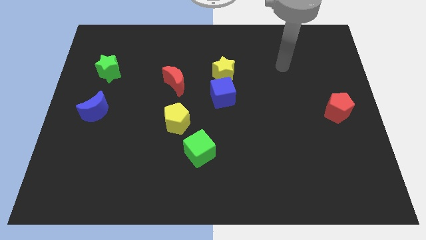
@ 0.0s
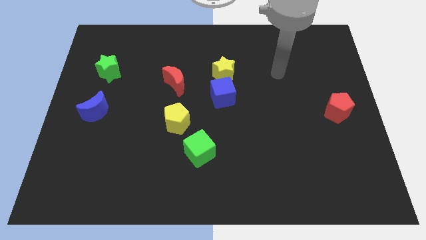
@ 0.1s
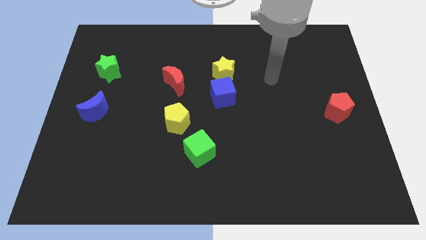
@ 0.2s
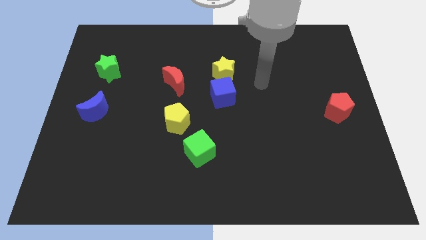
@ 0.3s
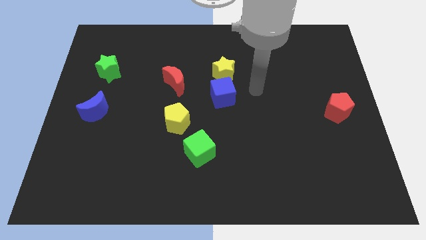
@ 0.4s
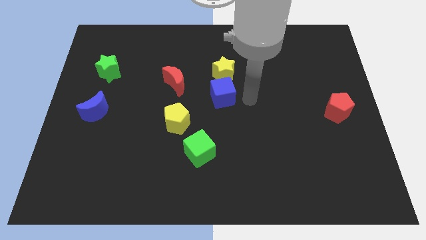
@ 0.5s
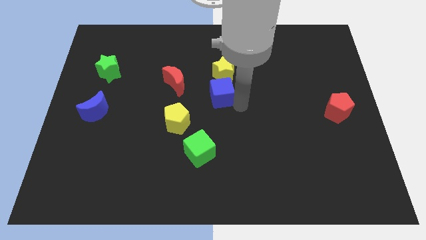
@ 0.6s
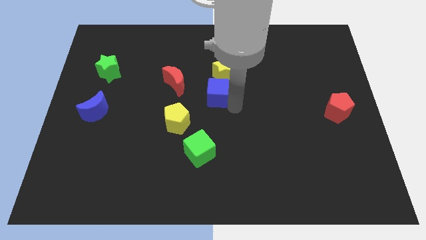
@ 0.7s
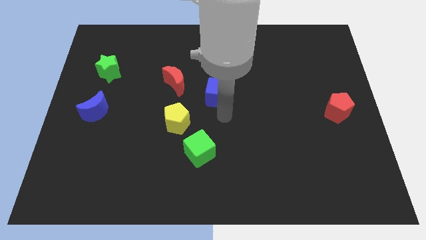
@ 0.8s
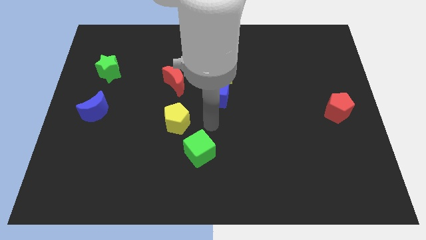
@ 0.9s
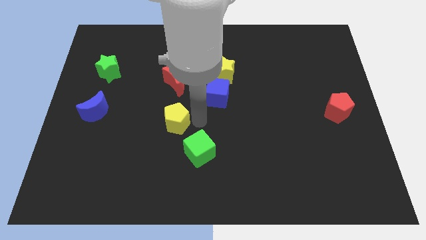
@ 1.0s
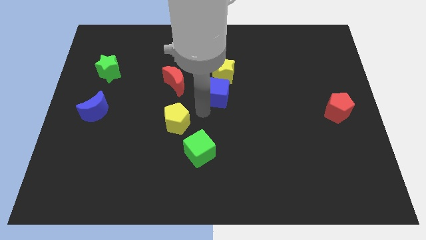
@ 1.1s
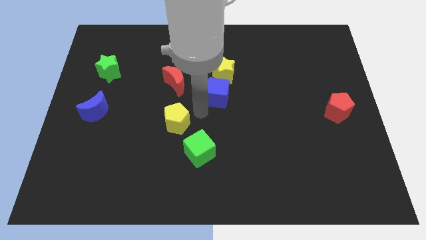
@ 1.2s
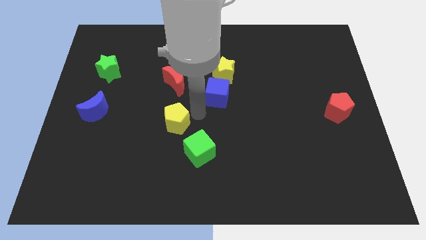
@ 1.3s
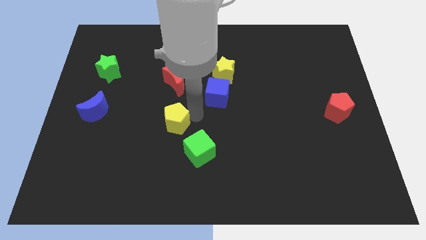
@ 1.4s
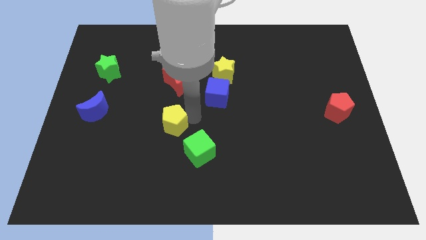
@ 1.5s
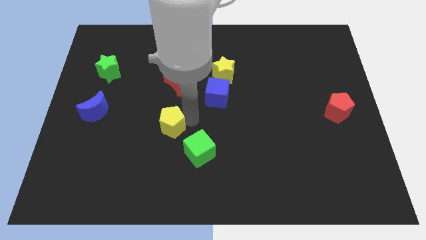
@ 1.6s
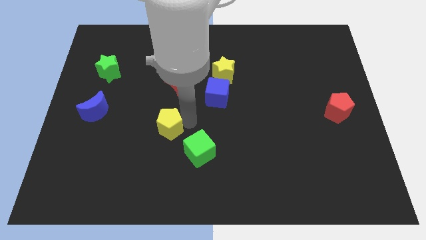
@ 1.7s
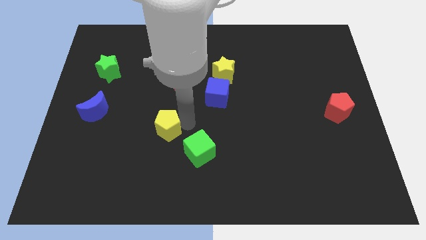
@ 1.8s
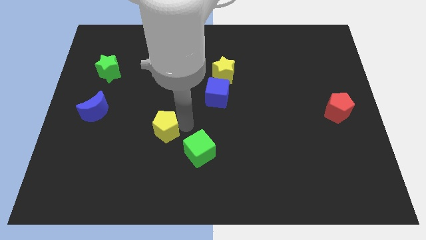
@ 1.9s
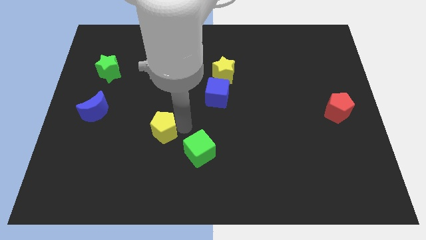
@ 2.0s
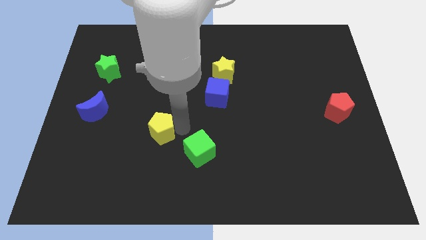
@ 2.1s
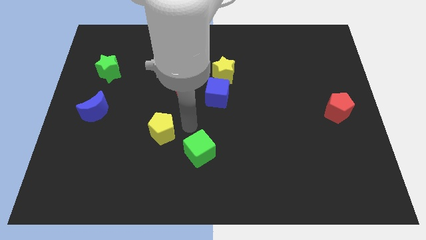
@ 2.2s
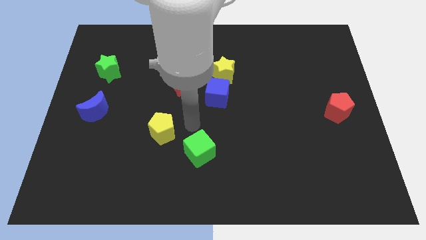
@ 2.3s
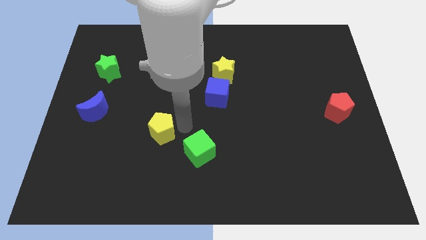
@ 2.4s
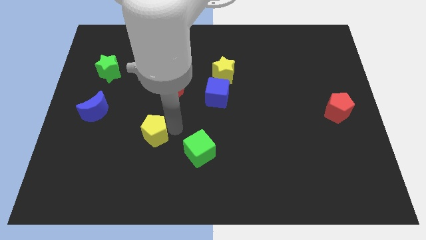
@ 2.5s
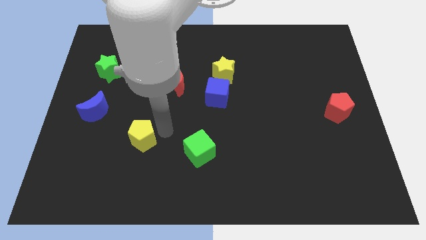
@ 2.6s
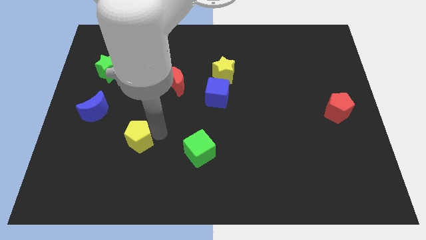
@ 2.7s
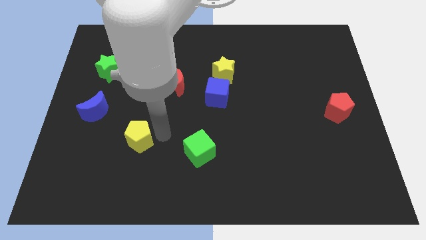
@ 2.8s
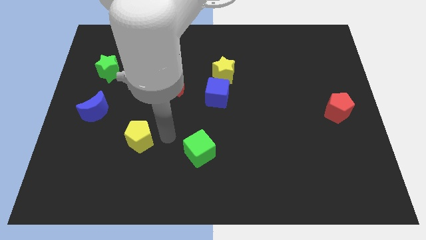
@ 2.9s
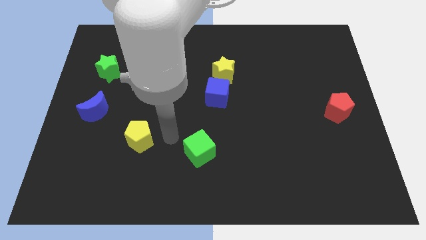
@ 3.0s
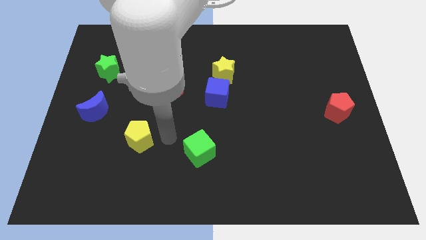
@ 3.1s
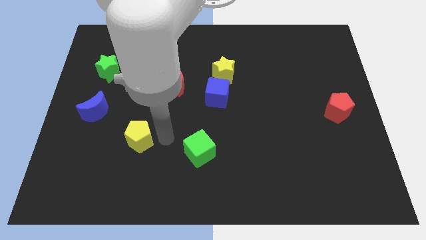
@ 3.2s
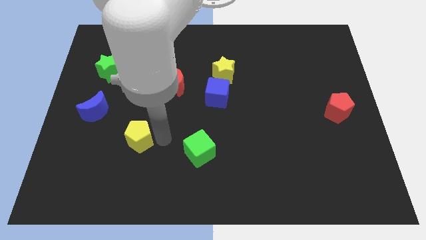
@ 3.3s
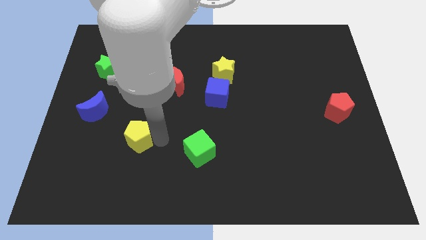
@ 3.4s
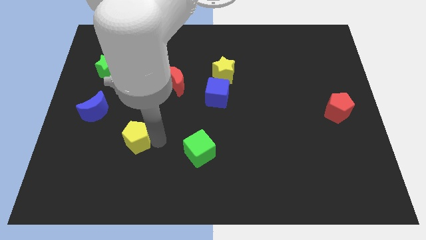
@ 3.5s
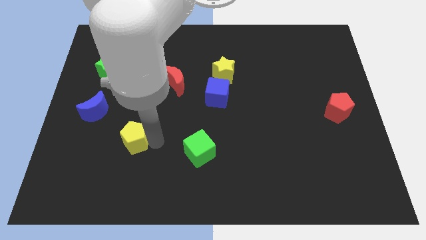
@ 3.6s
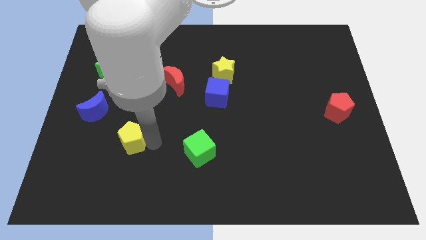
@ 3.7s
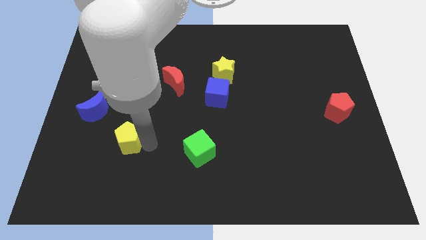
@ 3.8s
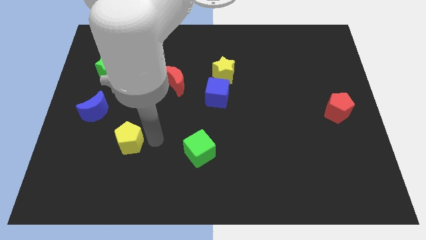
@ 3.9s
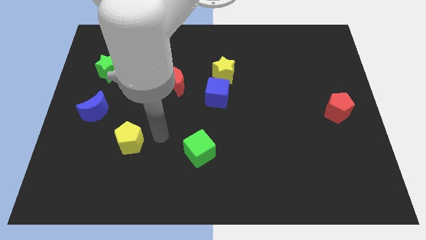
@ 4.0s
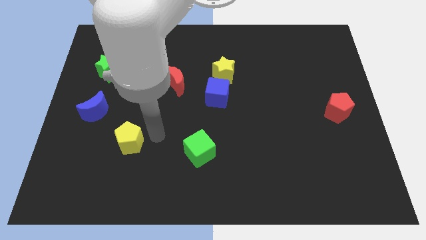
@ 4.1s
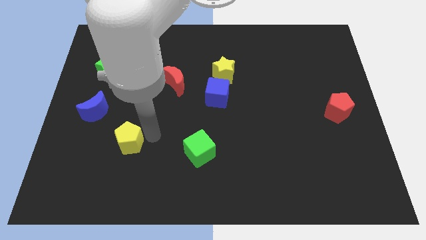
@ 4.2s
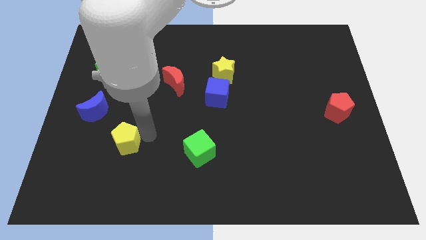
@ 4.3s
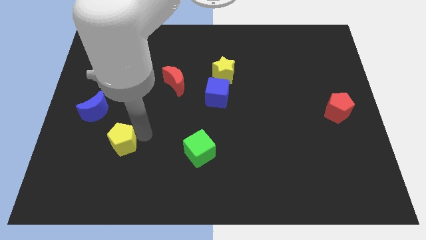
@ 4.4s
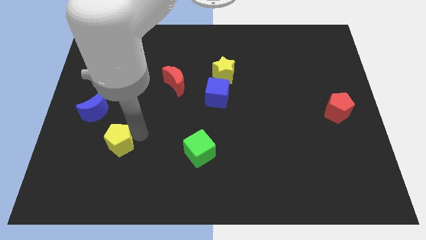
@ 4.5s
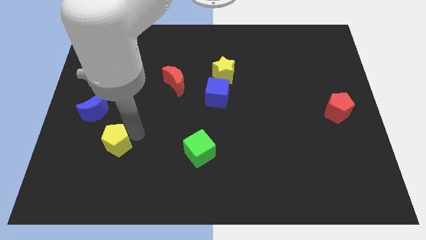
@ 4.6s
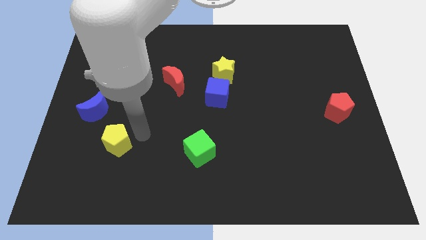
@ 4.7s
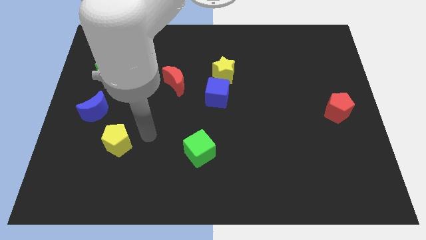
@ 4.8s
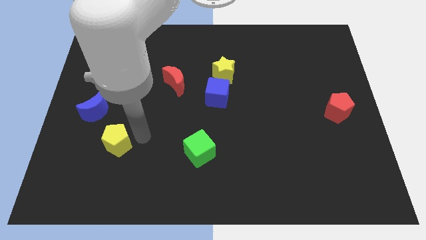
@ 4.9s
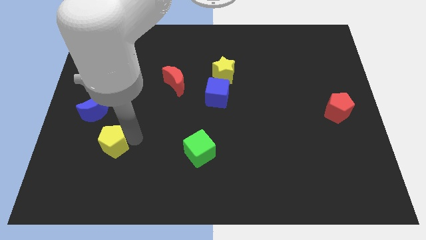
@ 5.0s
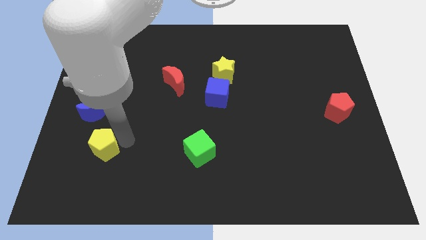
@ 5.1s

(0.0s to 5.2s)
move the yellow pentagon below the blue moon

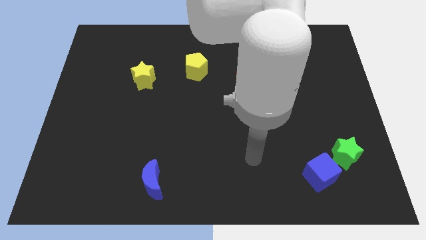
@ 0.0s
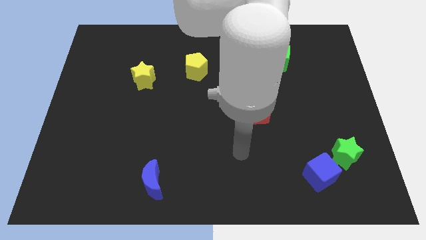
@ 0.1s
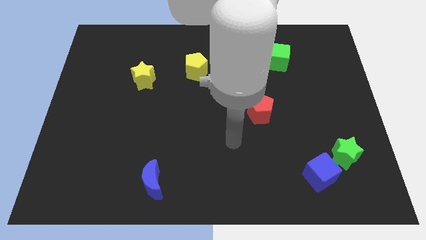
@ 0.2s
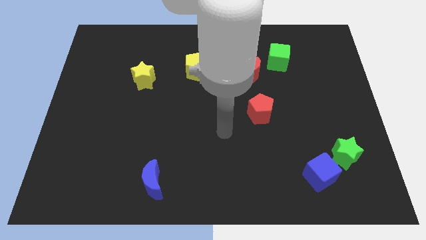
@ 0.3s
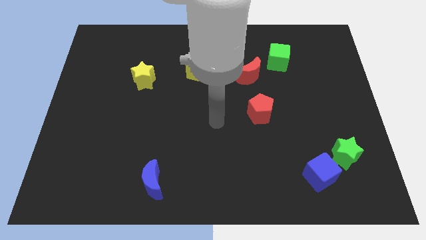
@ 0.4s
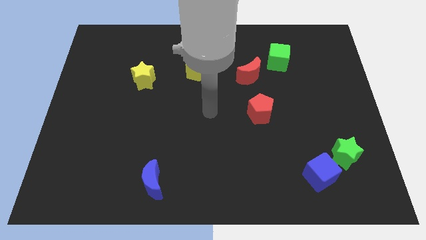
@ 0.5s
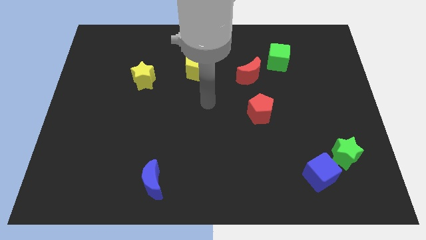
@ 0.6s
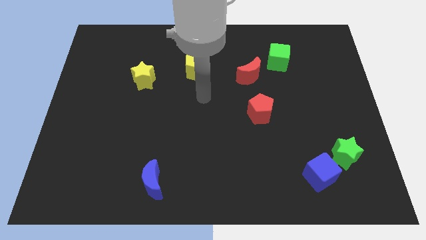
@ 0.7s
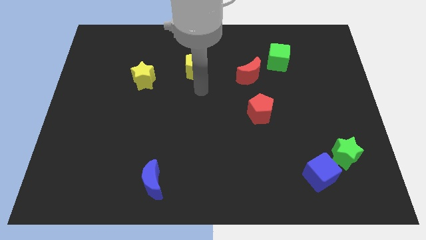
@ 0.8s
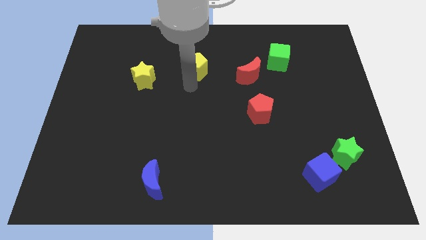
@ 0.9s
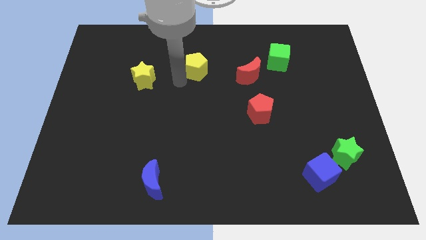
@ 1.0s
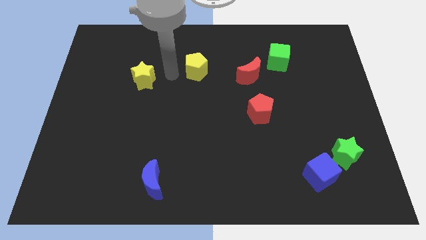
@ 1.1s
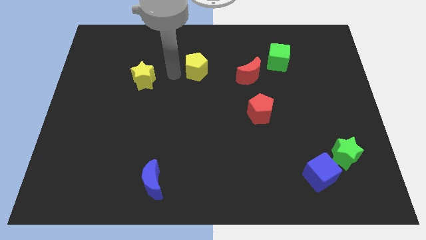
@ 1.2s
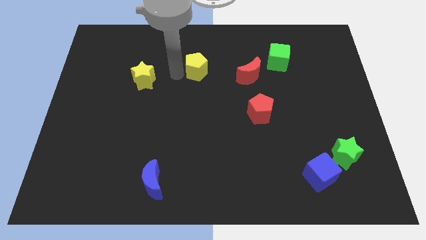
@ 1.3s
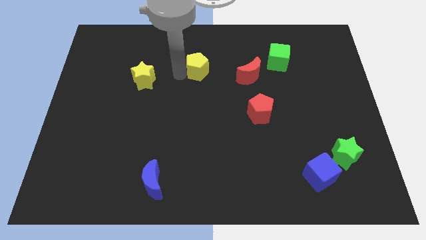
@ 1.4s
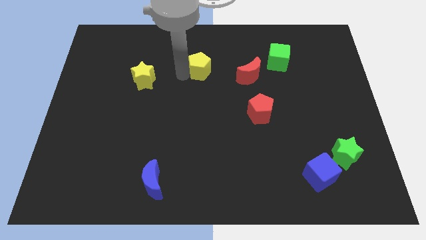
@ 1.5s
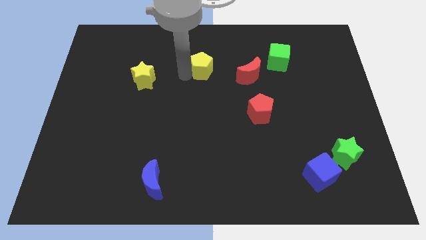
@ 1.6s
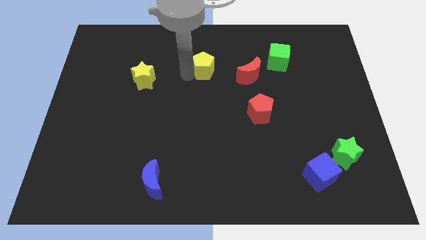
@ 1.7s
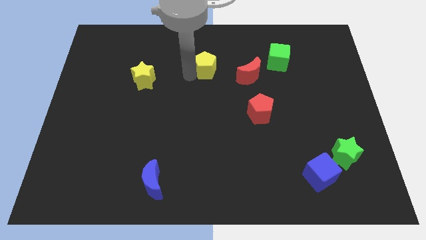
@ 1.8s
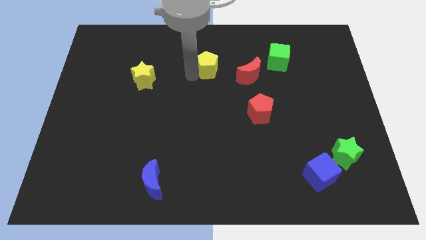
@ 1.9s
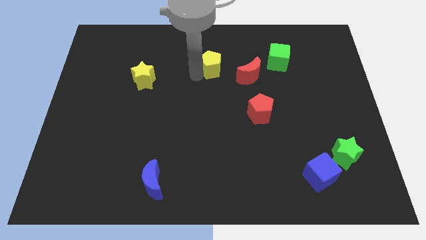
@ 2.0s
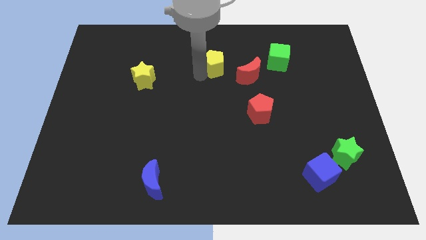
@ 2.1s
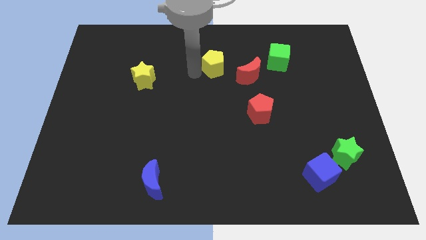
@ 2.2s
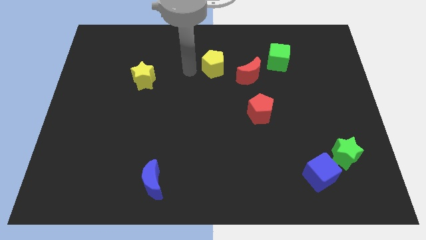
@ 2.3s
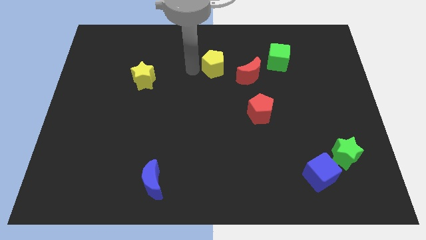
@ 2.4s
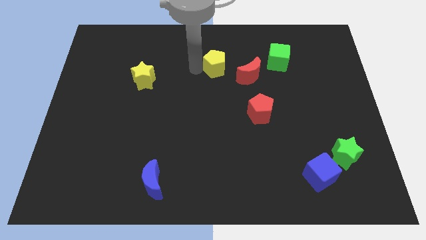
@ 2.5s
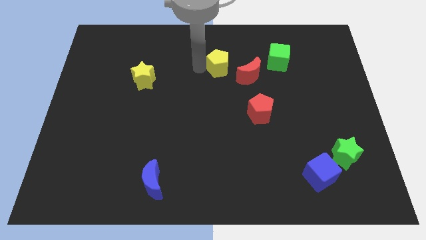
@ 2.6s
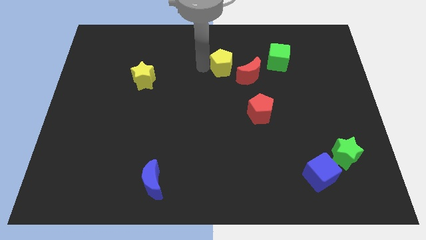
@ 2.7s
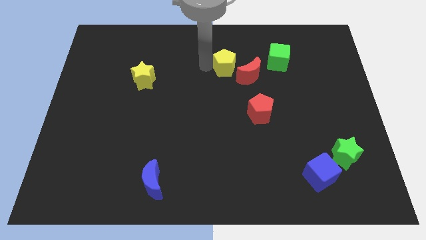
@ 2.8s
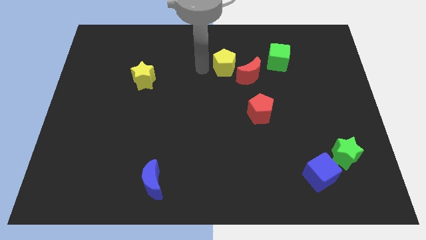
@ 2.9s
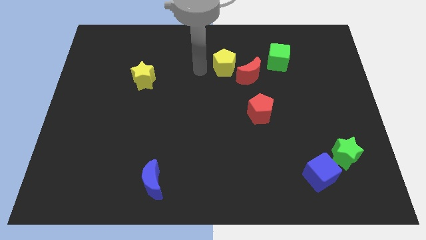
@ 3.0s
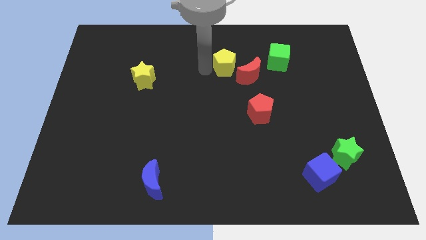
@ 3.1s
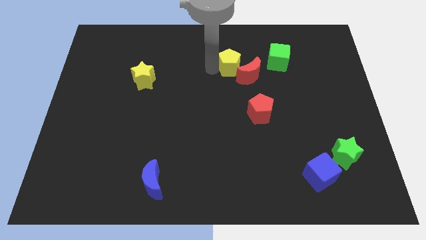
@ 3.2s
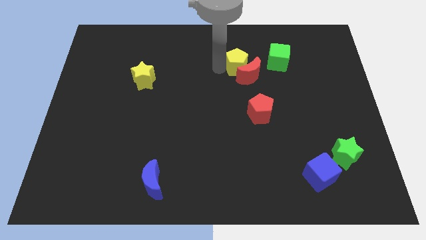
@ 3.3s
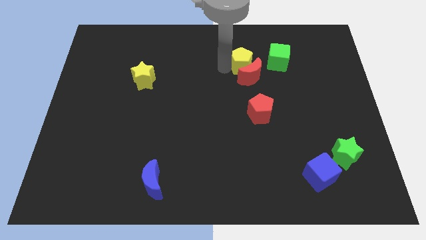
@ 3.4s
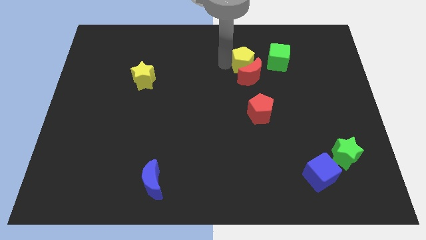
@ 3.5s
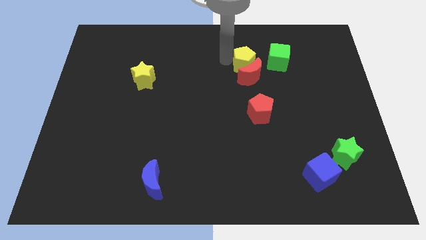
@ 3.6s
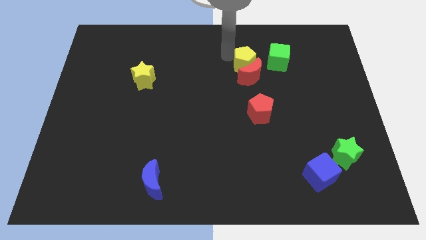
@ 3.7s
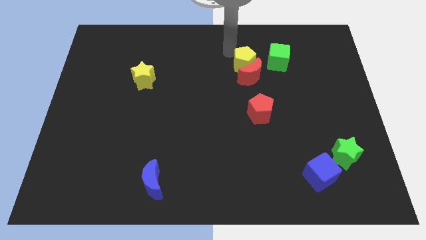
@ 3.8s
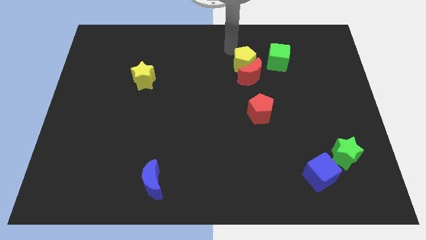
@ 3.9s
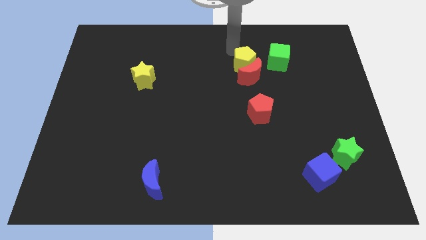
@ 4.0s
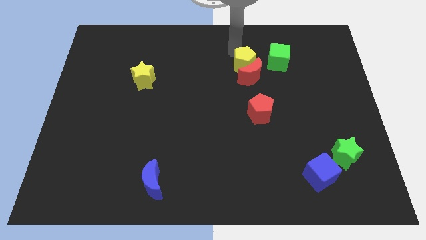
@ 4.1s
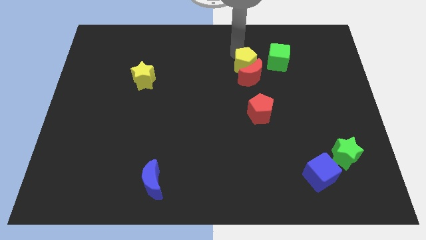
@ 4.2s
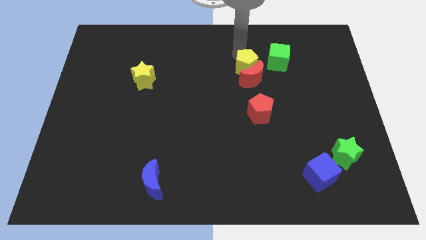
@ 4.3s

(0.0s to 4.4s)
push the yellow pentagon to the top of the red pentagon
